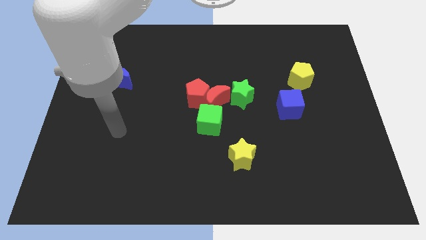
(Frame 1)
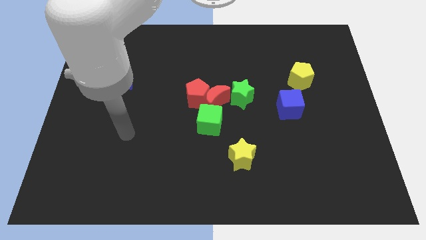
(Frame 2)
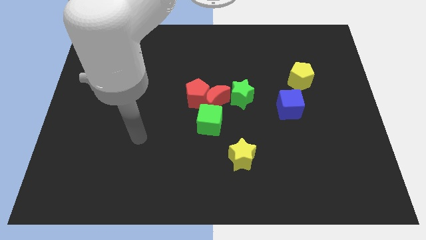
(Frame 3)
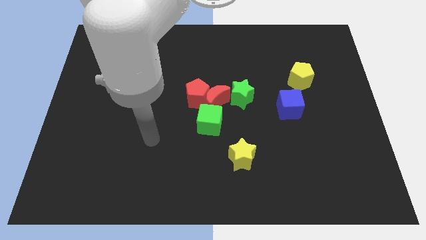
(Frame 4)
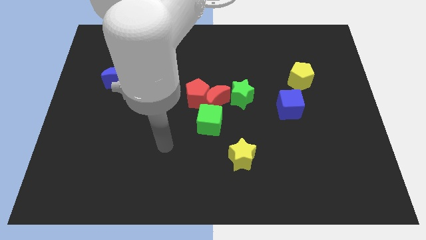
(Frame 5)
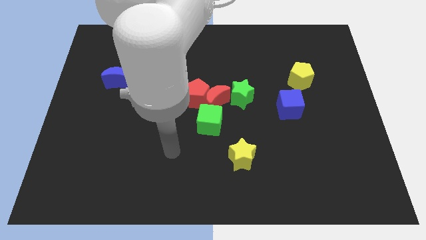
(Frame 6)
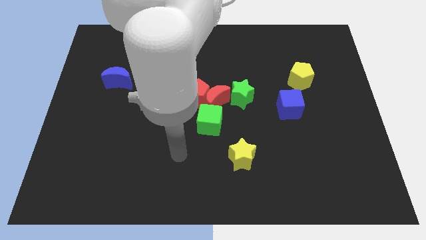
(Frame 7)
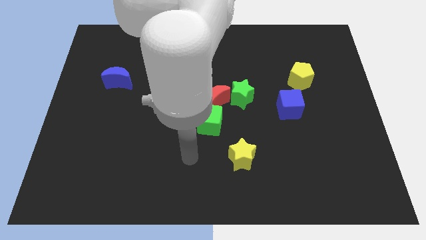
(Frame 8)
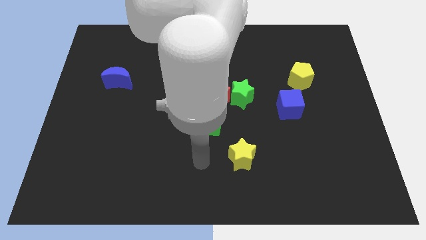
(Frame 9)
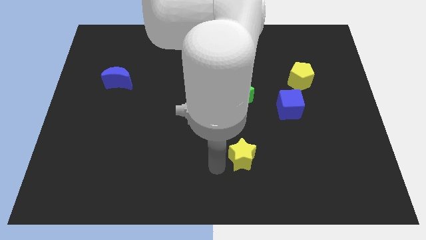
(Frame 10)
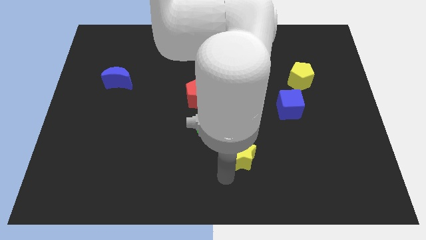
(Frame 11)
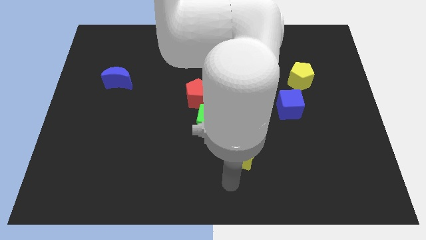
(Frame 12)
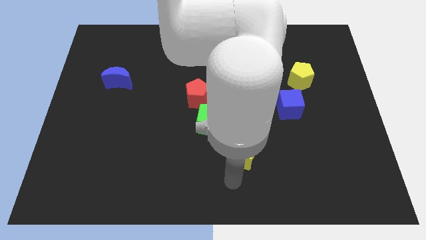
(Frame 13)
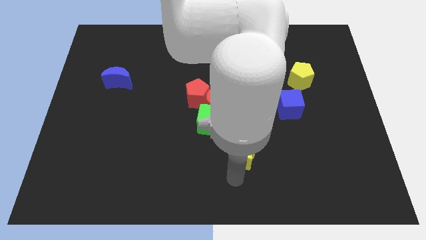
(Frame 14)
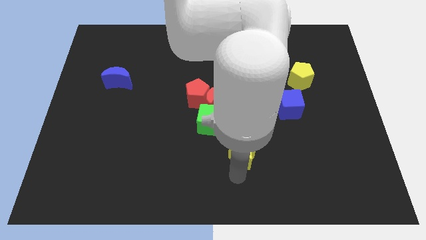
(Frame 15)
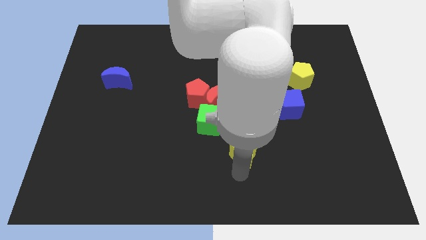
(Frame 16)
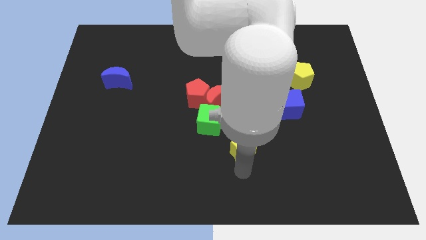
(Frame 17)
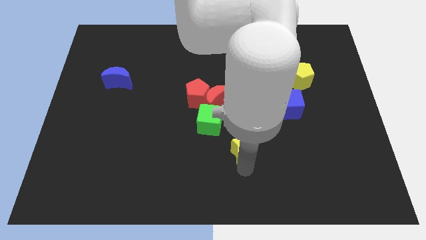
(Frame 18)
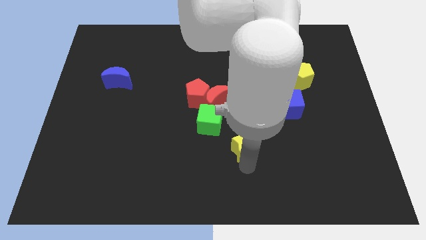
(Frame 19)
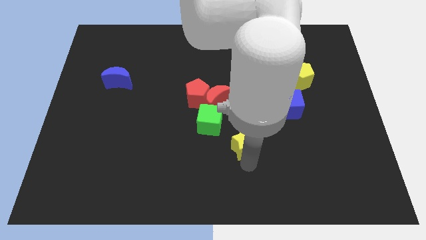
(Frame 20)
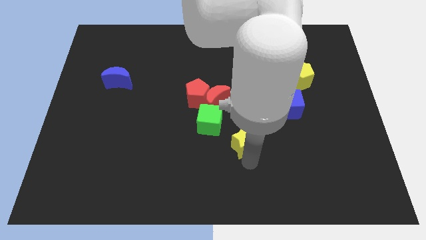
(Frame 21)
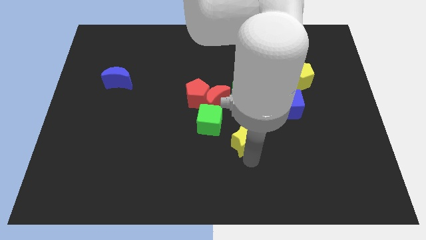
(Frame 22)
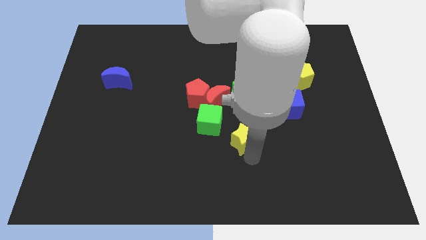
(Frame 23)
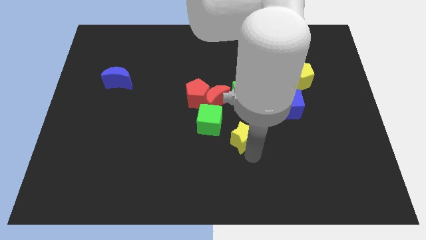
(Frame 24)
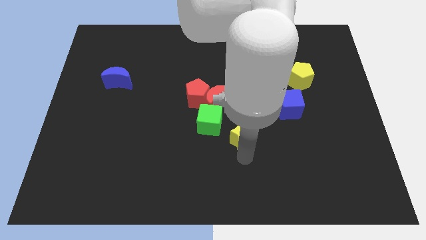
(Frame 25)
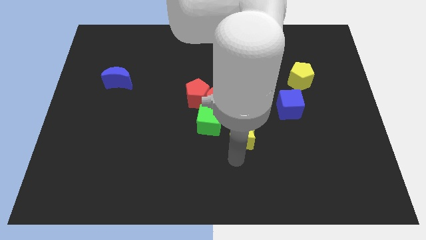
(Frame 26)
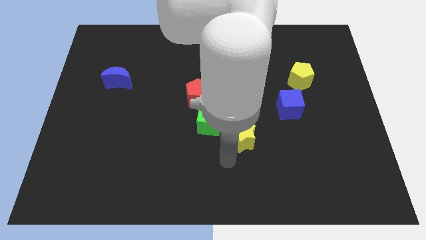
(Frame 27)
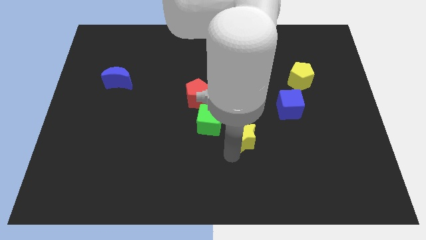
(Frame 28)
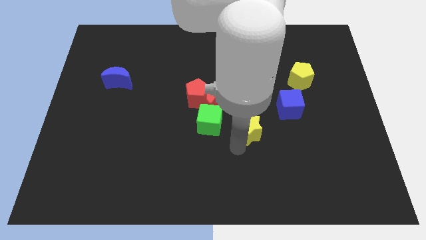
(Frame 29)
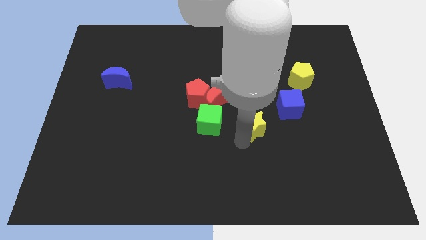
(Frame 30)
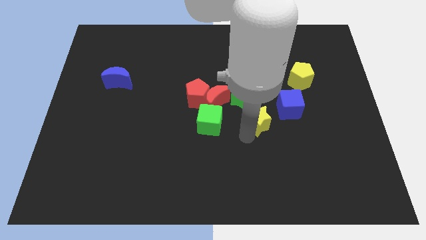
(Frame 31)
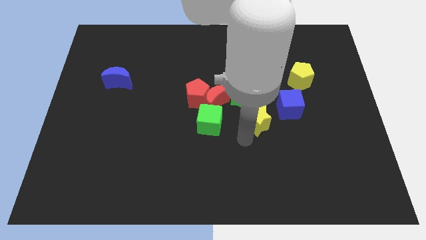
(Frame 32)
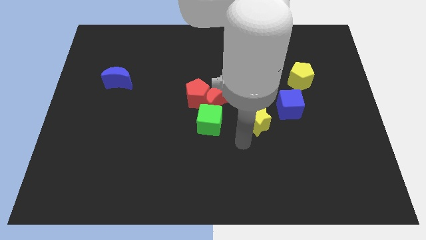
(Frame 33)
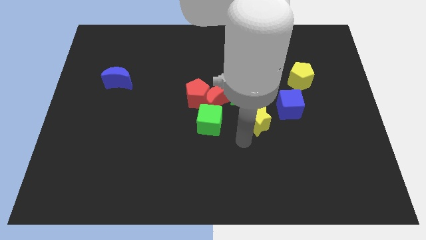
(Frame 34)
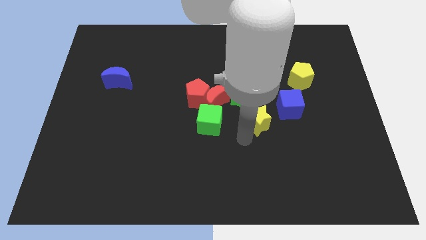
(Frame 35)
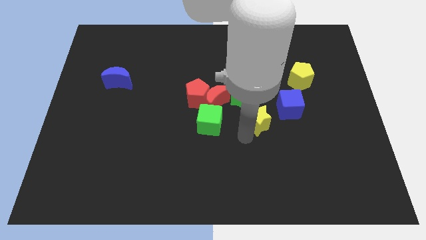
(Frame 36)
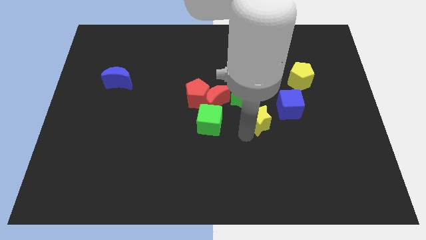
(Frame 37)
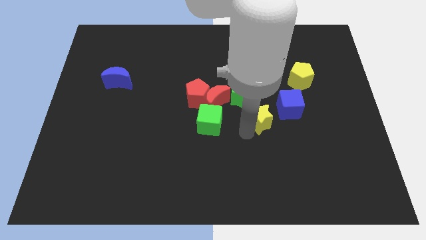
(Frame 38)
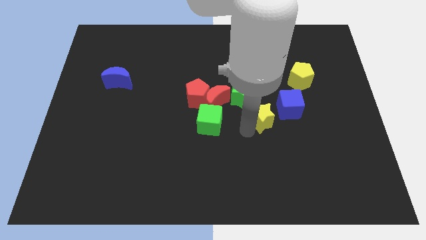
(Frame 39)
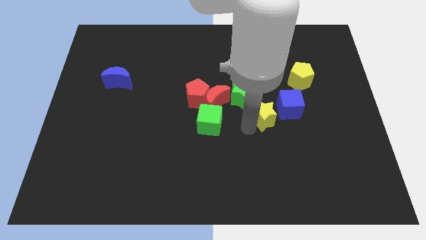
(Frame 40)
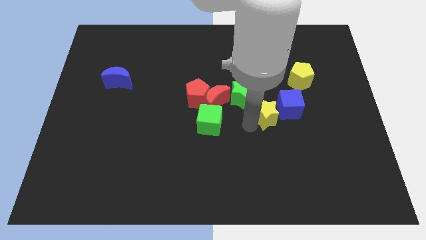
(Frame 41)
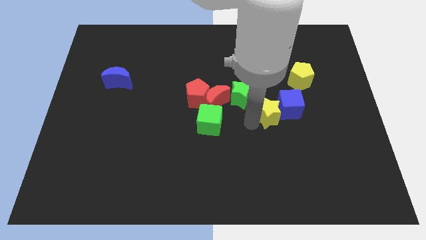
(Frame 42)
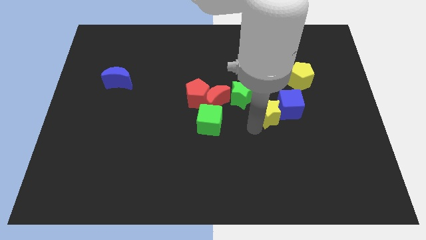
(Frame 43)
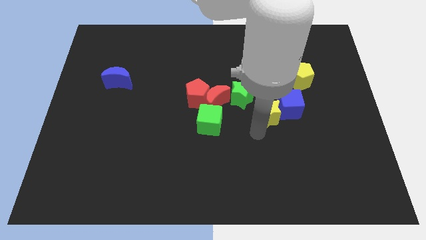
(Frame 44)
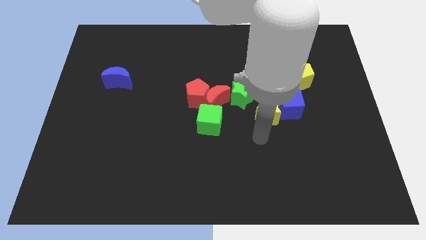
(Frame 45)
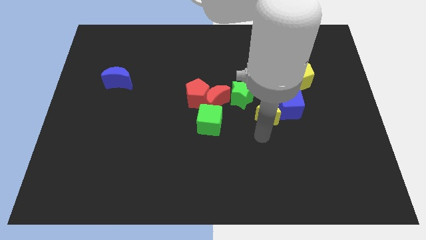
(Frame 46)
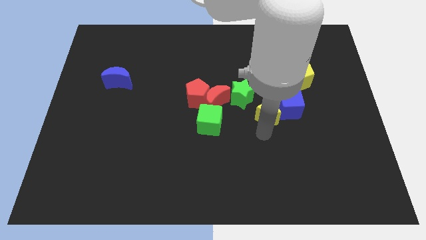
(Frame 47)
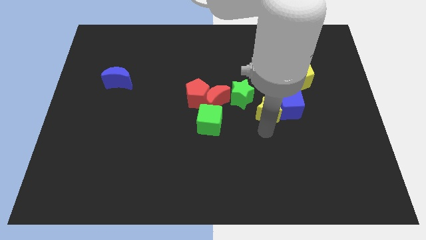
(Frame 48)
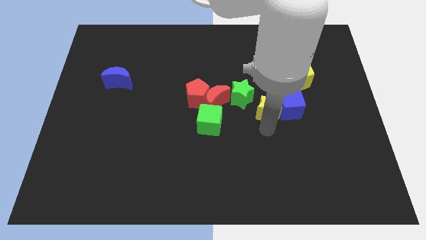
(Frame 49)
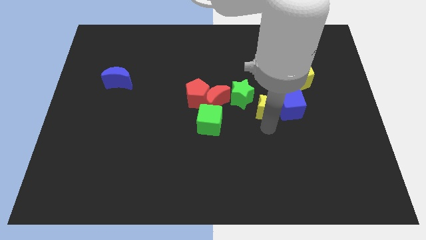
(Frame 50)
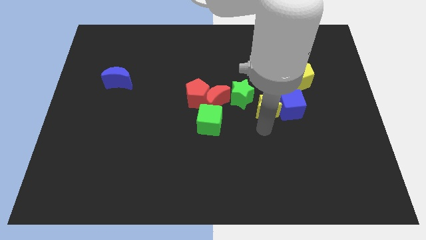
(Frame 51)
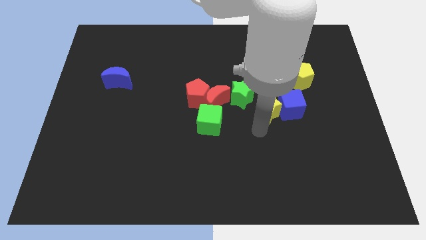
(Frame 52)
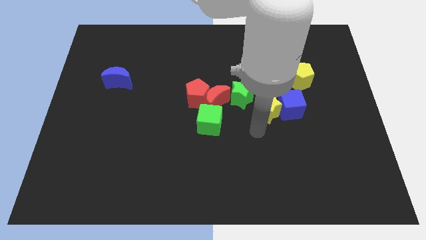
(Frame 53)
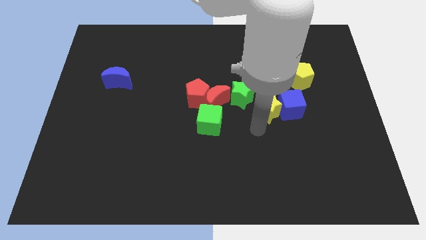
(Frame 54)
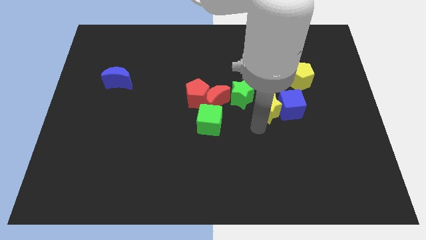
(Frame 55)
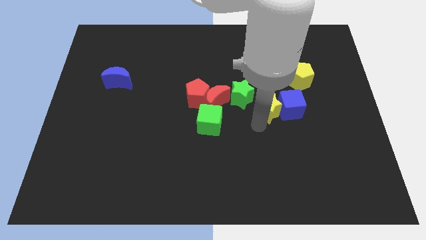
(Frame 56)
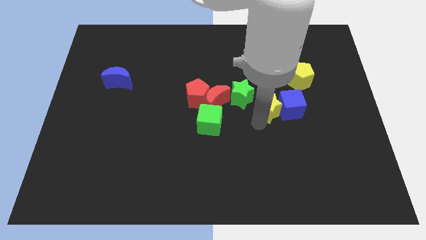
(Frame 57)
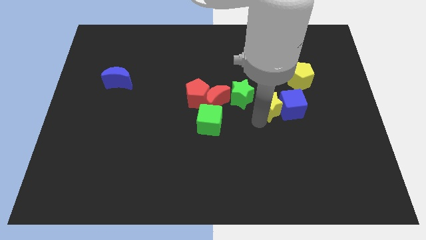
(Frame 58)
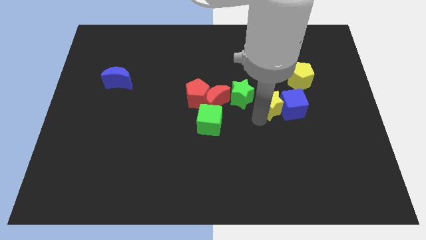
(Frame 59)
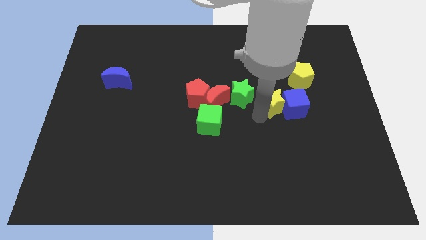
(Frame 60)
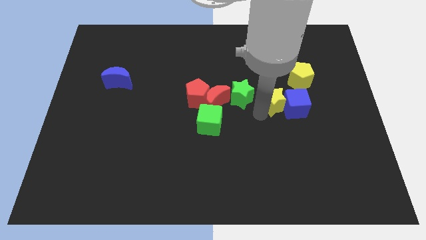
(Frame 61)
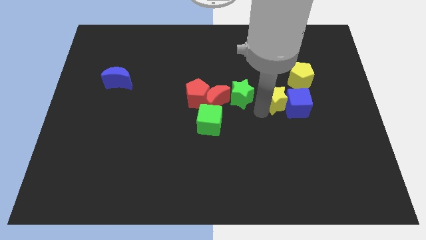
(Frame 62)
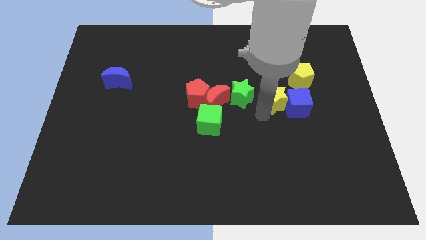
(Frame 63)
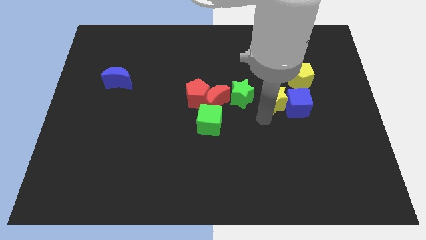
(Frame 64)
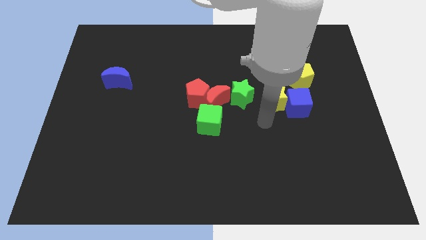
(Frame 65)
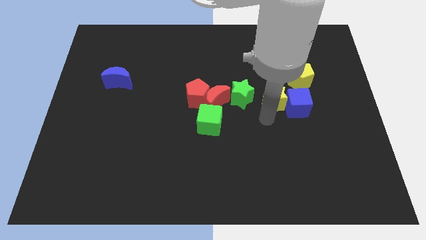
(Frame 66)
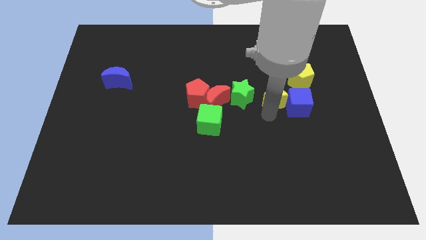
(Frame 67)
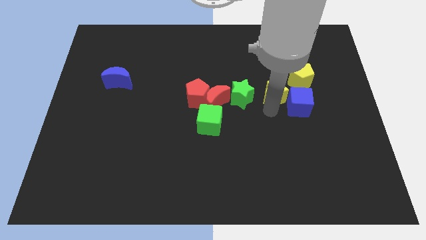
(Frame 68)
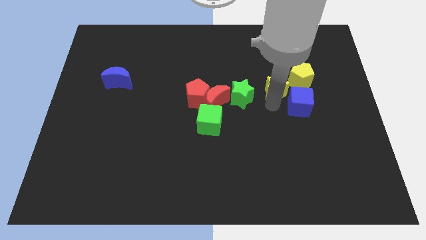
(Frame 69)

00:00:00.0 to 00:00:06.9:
slide the yellow star to the top of the blue cube

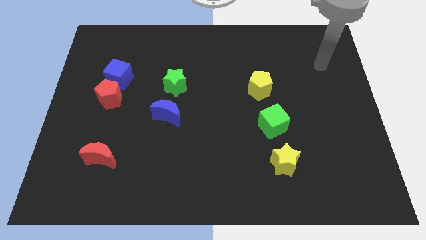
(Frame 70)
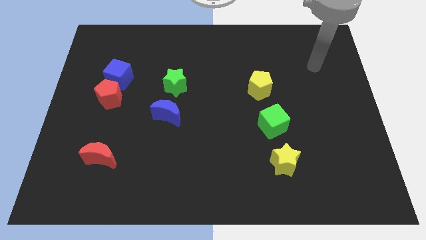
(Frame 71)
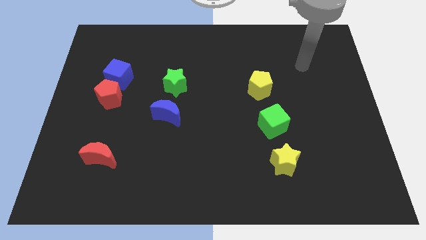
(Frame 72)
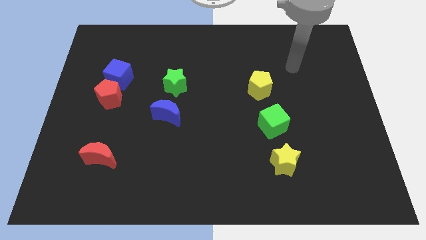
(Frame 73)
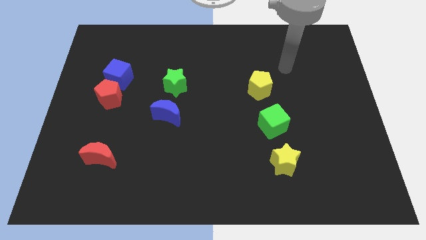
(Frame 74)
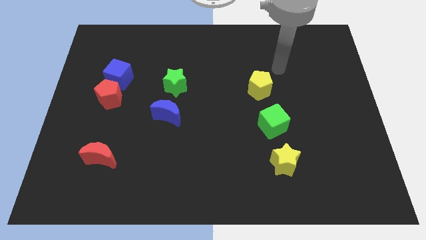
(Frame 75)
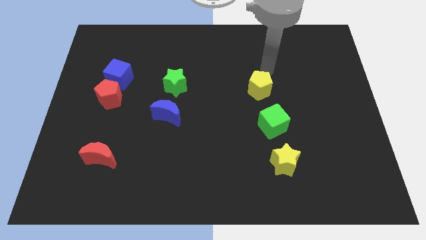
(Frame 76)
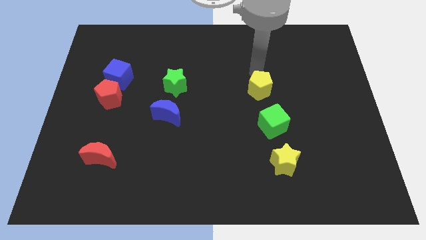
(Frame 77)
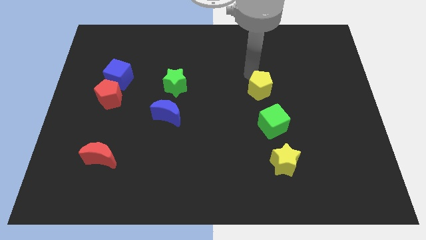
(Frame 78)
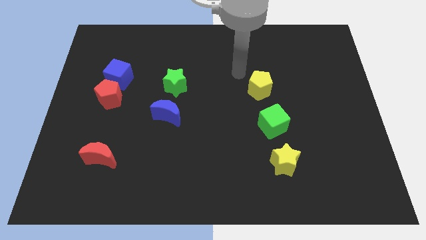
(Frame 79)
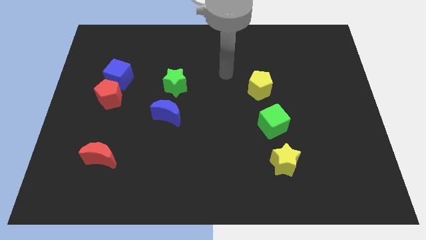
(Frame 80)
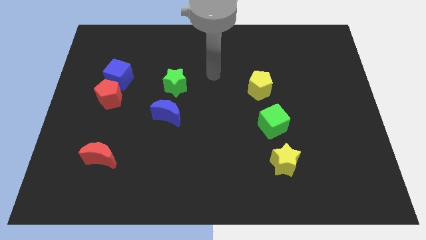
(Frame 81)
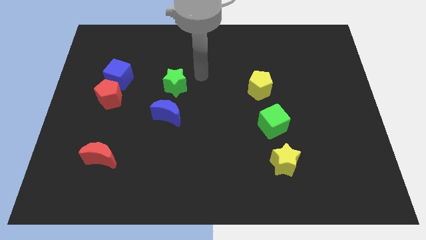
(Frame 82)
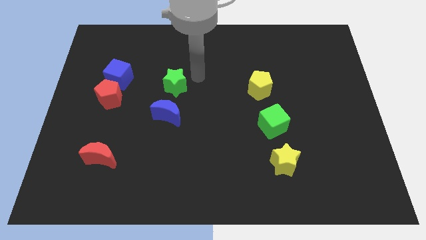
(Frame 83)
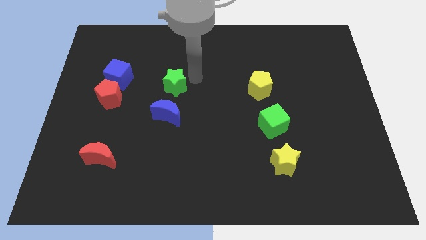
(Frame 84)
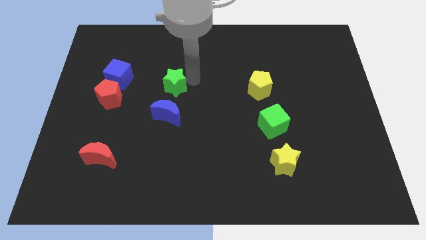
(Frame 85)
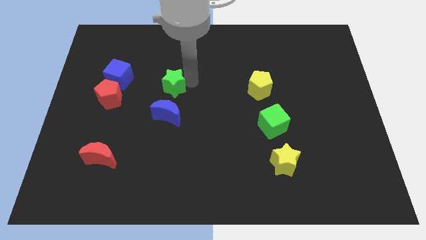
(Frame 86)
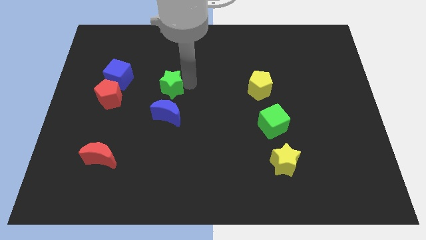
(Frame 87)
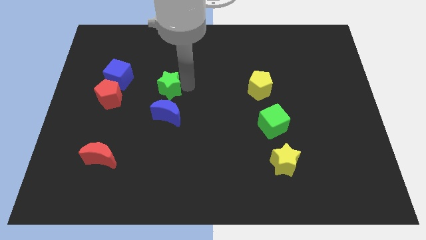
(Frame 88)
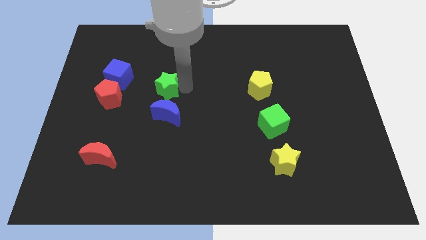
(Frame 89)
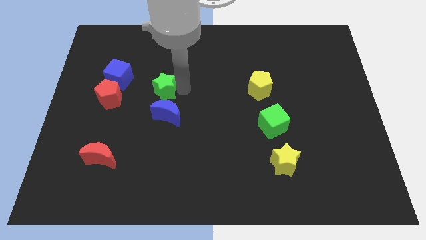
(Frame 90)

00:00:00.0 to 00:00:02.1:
push the green star to the top left of the blue moon
